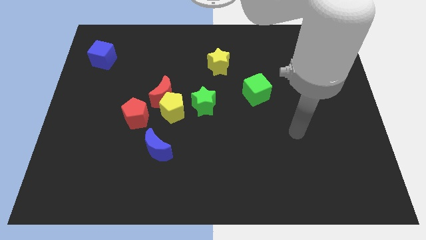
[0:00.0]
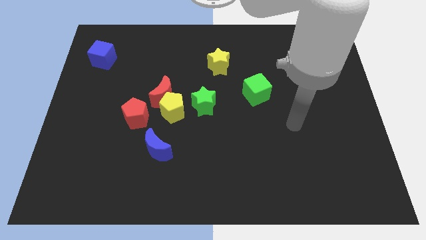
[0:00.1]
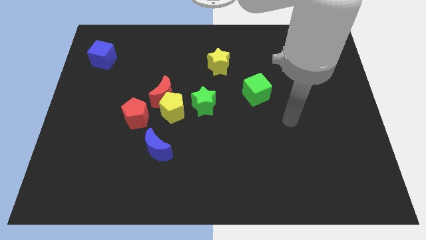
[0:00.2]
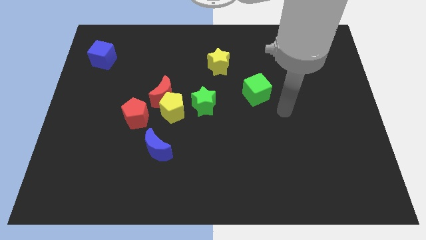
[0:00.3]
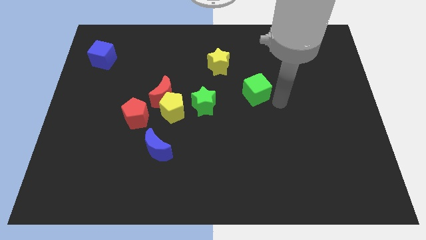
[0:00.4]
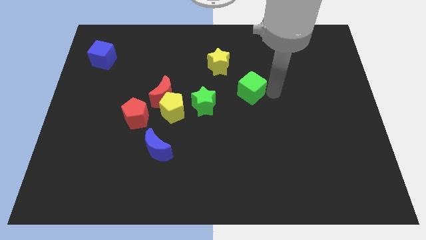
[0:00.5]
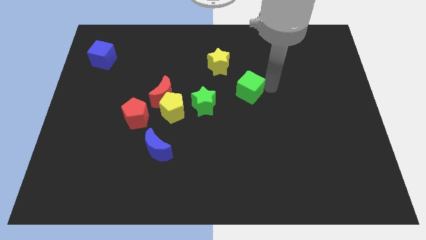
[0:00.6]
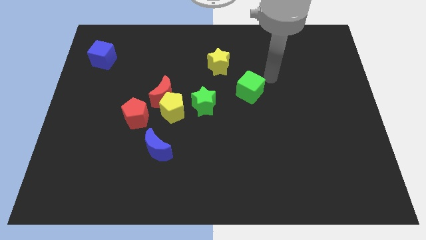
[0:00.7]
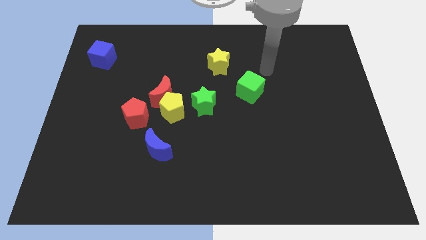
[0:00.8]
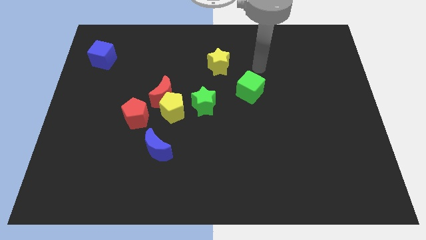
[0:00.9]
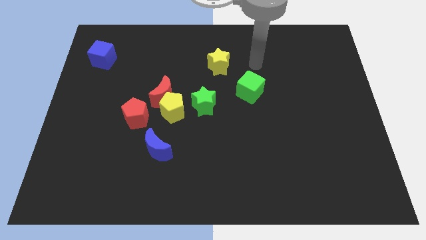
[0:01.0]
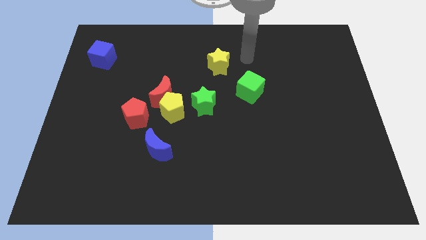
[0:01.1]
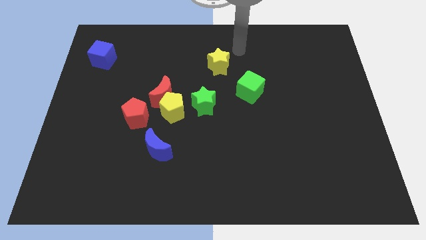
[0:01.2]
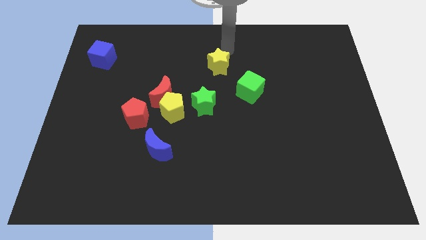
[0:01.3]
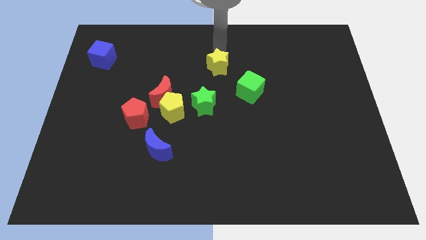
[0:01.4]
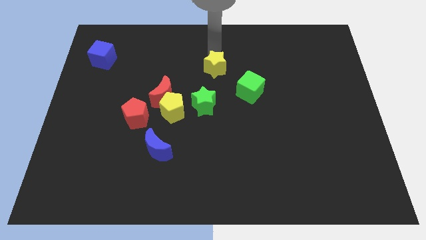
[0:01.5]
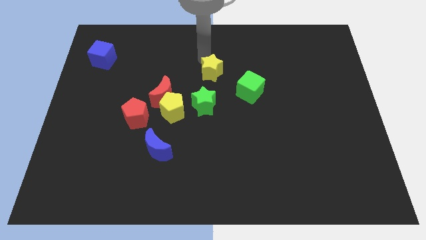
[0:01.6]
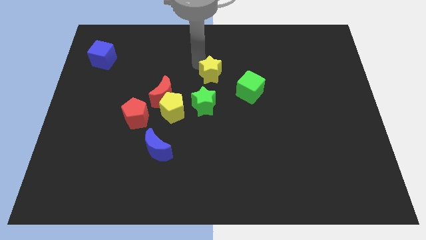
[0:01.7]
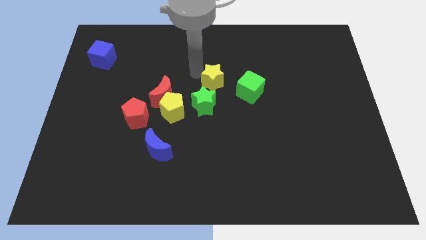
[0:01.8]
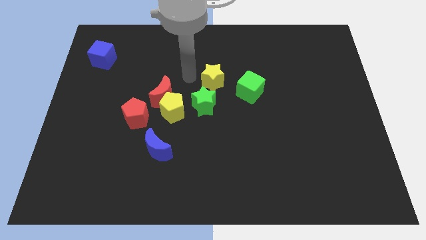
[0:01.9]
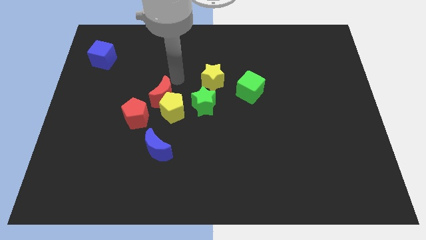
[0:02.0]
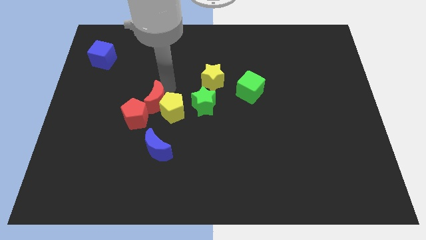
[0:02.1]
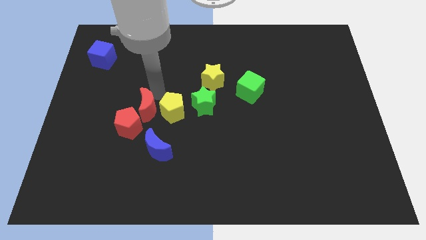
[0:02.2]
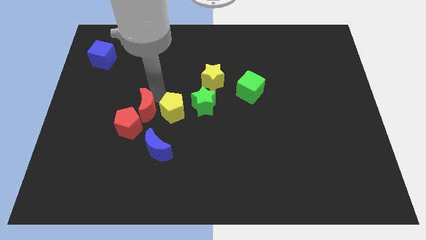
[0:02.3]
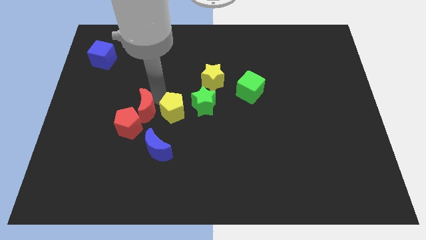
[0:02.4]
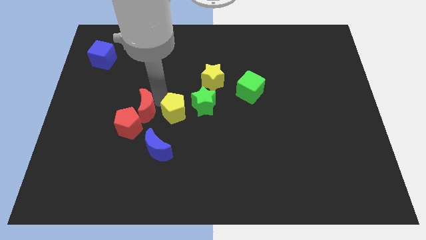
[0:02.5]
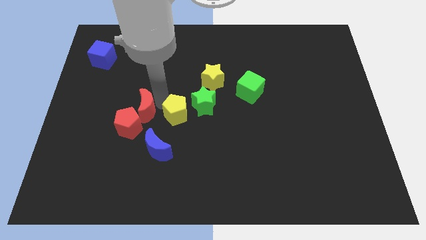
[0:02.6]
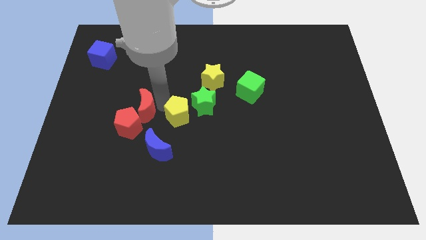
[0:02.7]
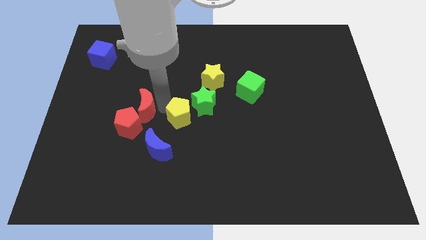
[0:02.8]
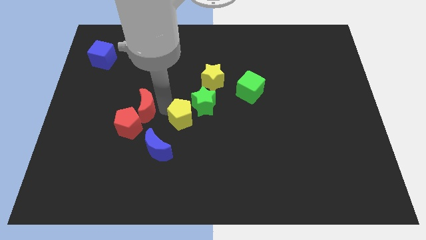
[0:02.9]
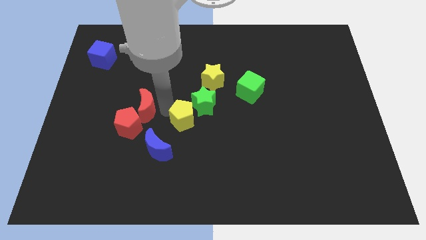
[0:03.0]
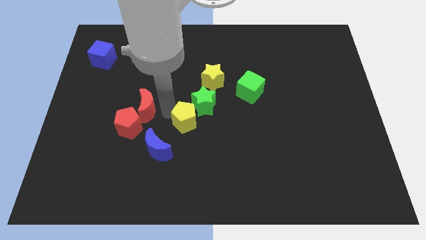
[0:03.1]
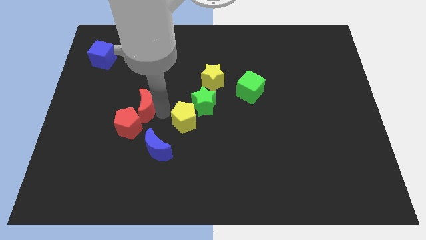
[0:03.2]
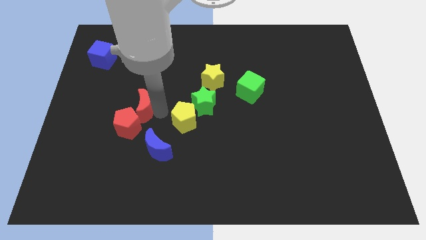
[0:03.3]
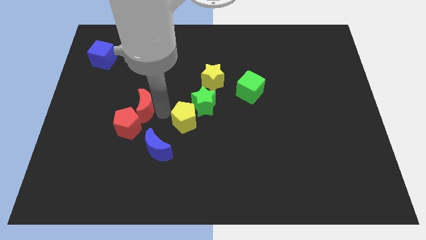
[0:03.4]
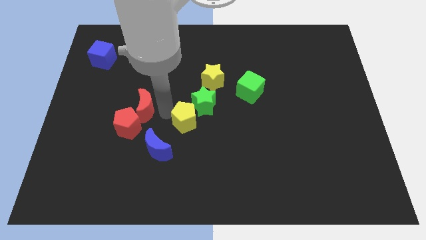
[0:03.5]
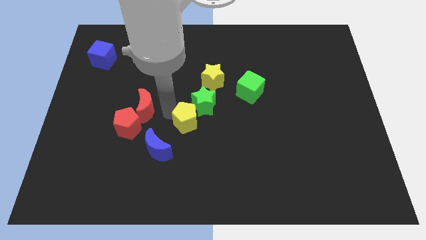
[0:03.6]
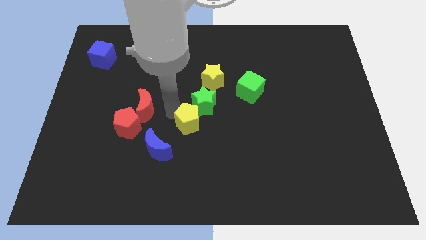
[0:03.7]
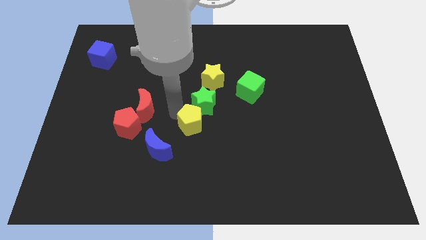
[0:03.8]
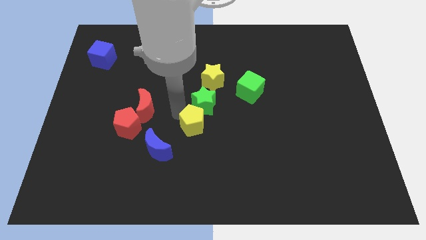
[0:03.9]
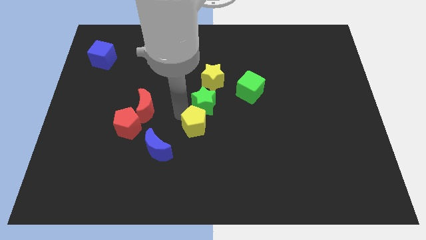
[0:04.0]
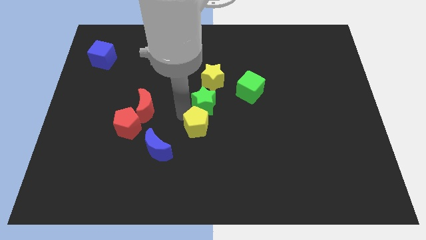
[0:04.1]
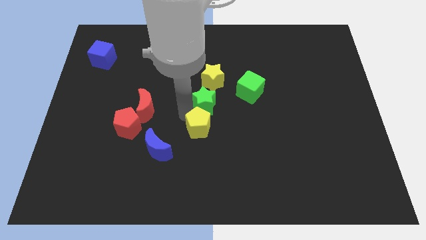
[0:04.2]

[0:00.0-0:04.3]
move the yellow pentagon away from the group of blocks

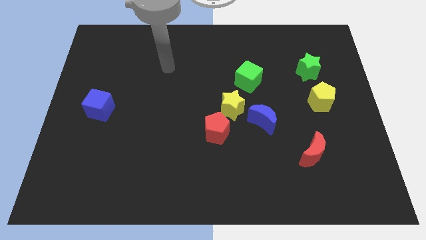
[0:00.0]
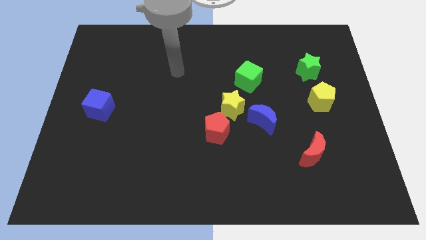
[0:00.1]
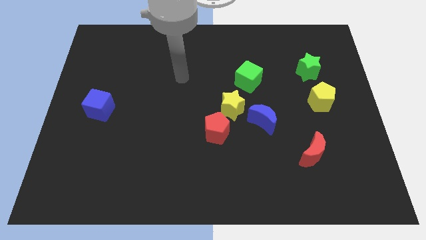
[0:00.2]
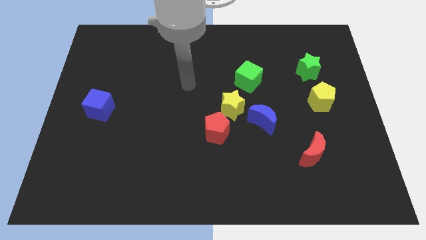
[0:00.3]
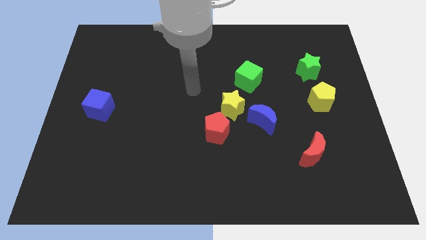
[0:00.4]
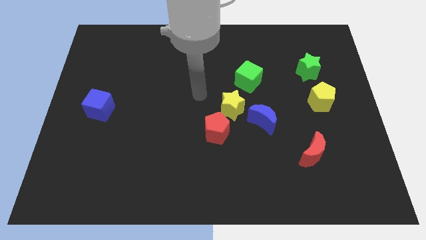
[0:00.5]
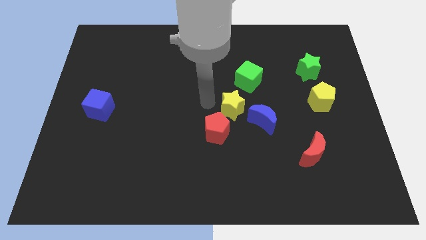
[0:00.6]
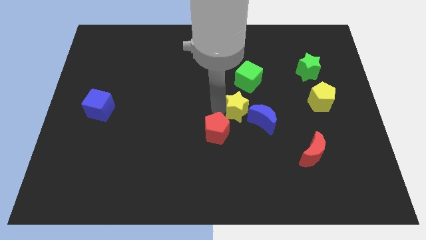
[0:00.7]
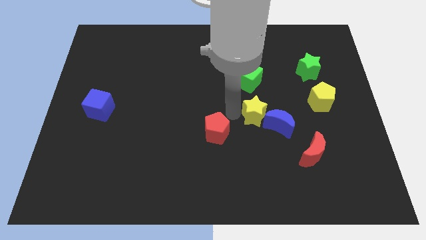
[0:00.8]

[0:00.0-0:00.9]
move the red pentagon away from the yellow star

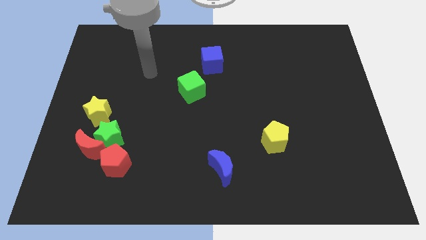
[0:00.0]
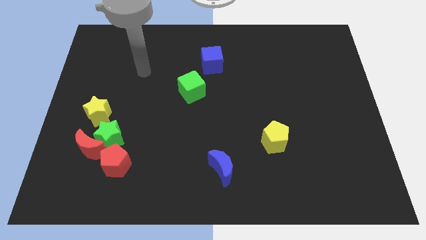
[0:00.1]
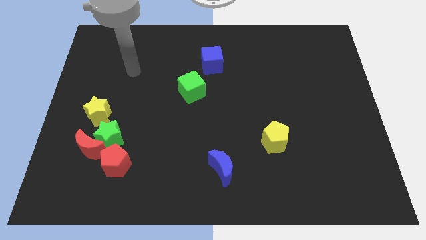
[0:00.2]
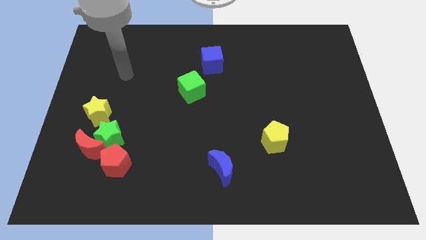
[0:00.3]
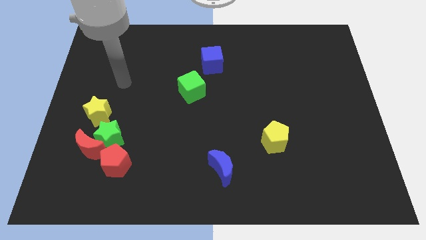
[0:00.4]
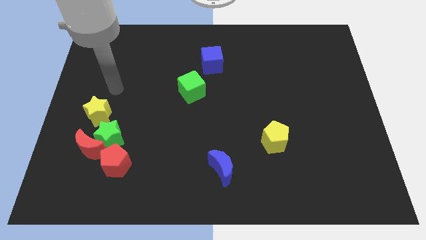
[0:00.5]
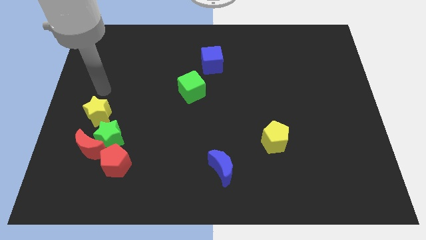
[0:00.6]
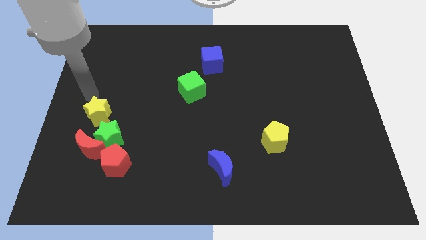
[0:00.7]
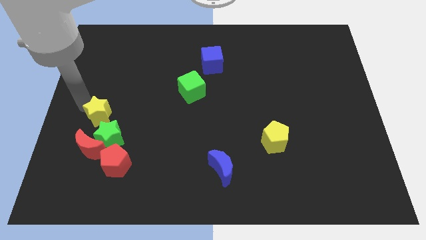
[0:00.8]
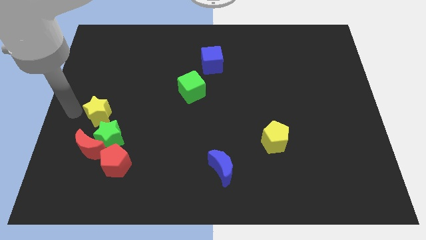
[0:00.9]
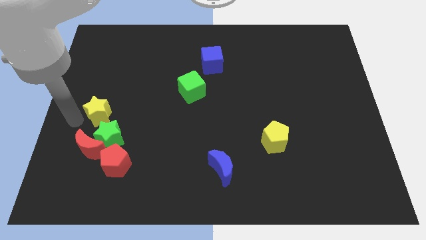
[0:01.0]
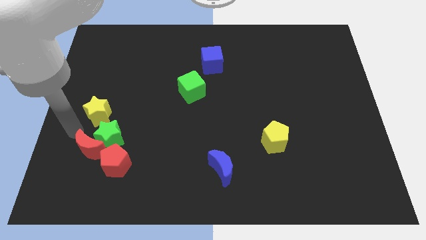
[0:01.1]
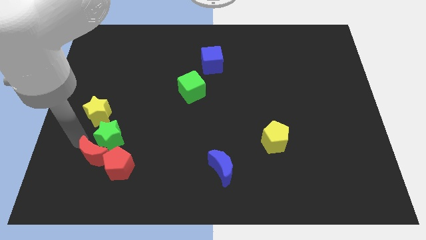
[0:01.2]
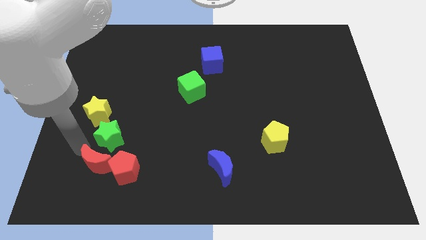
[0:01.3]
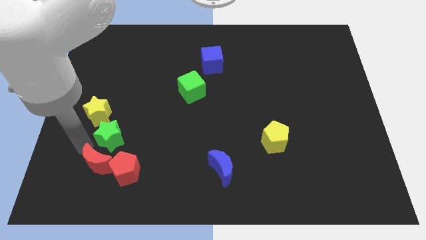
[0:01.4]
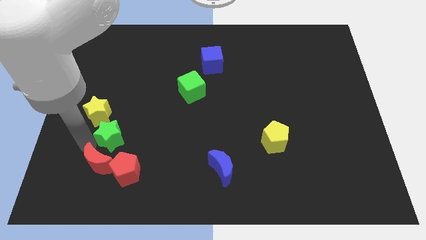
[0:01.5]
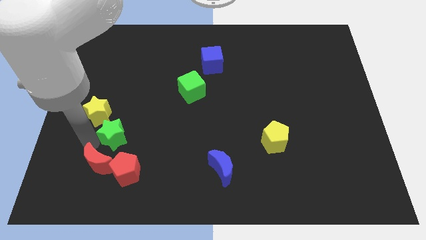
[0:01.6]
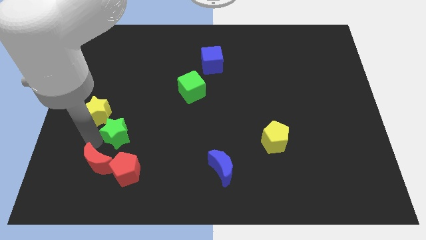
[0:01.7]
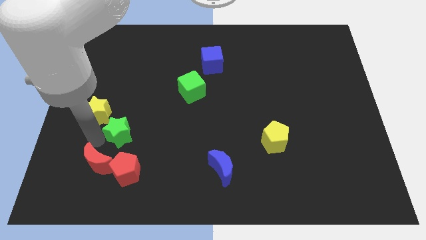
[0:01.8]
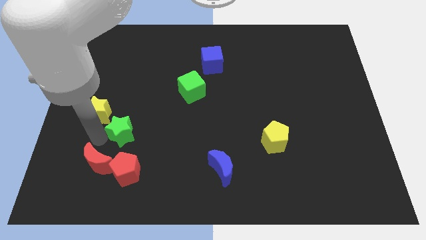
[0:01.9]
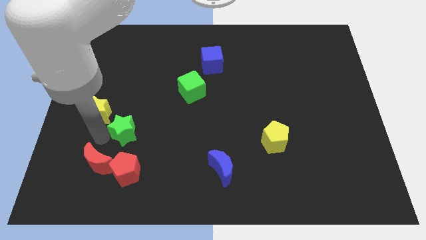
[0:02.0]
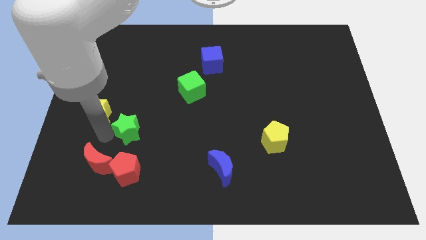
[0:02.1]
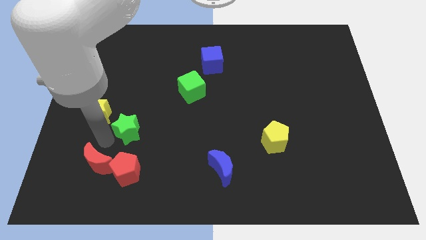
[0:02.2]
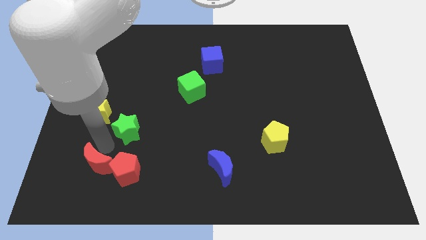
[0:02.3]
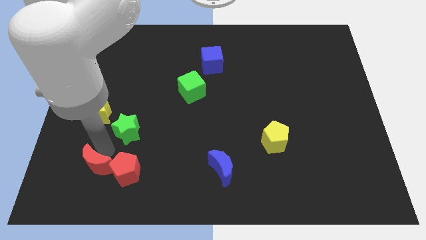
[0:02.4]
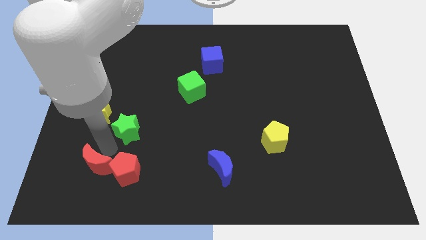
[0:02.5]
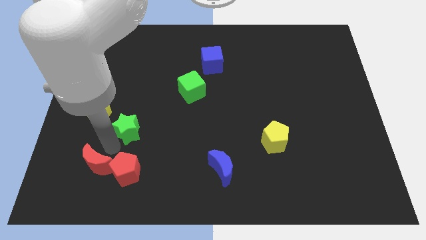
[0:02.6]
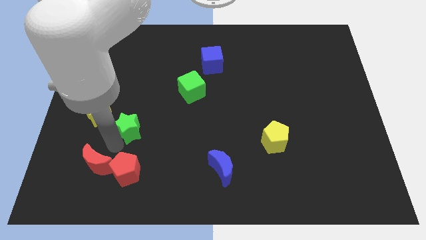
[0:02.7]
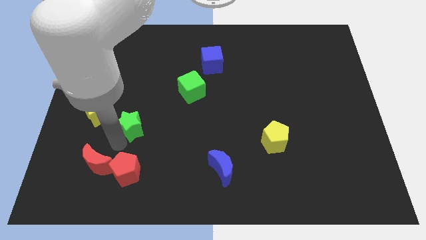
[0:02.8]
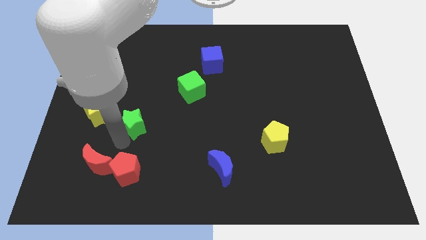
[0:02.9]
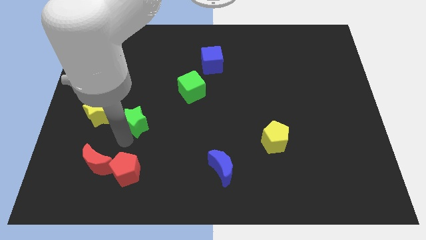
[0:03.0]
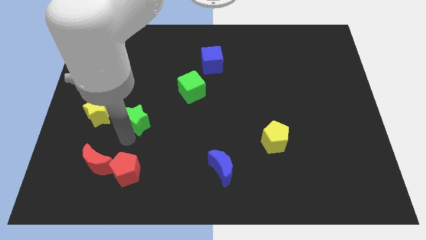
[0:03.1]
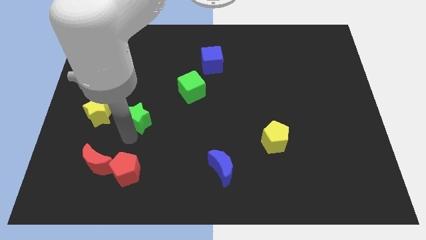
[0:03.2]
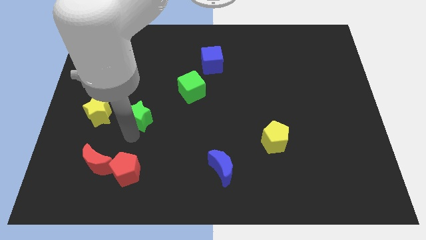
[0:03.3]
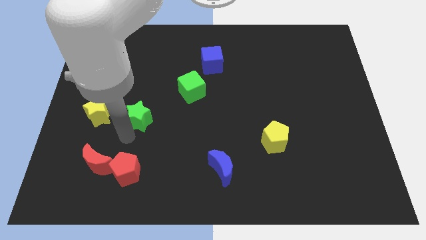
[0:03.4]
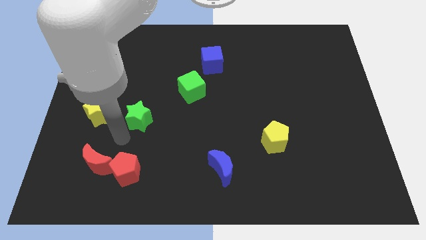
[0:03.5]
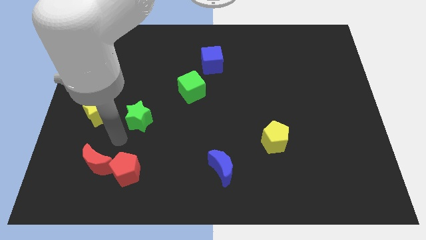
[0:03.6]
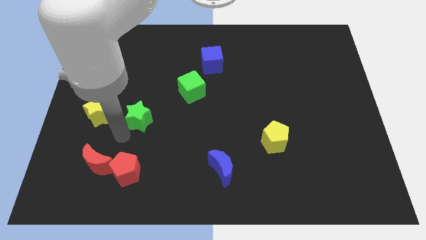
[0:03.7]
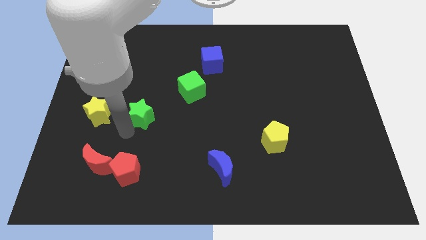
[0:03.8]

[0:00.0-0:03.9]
separate the green star from the clump

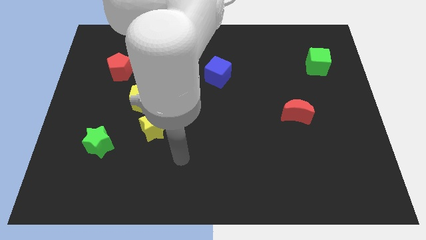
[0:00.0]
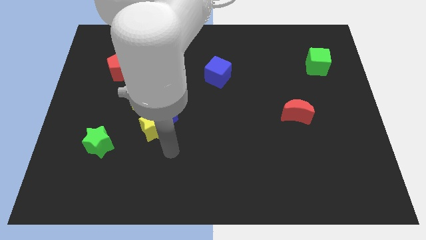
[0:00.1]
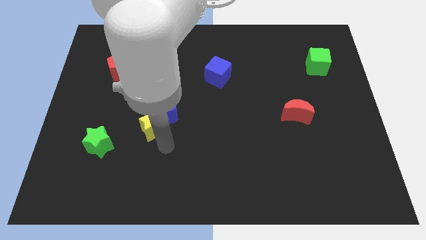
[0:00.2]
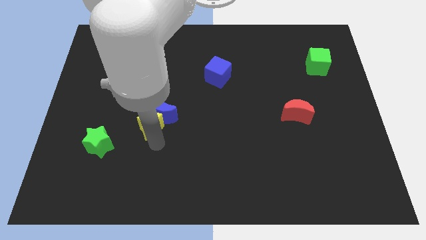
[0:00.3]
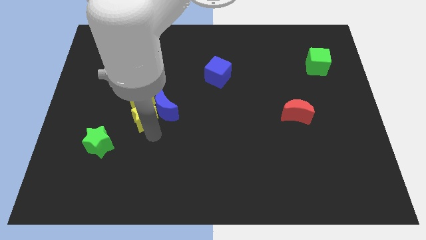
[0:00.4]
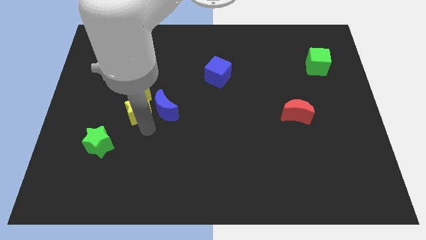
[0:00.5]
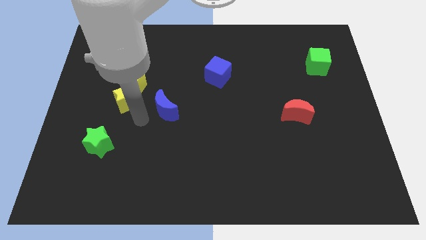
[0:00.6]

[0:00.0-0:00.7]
move the blue moon away from the yellow star and yellow pentagon
